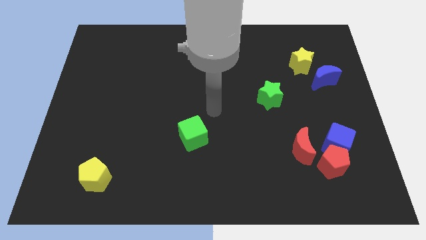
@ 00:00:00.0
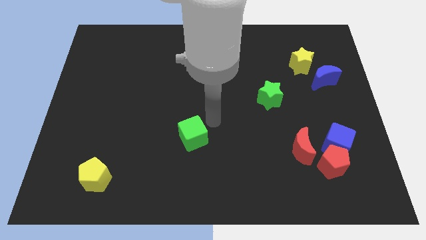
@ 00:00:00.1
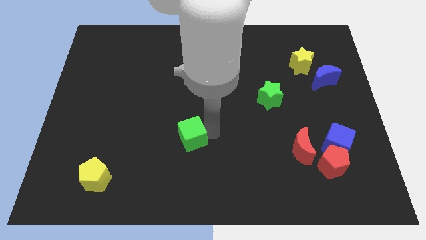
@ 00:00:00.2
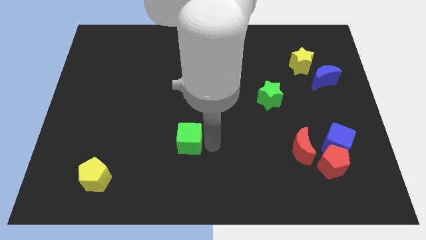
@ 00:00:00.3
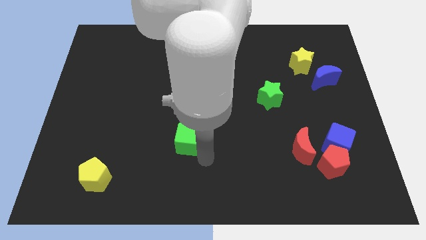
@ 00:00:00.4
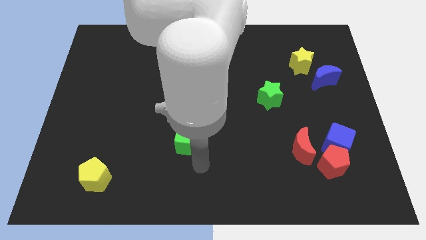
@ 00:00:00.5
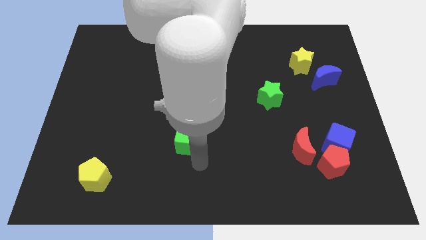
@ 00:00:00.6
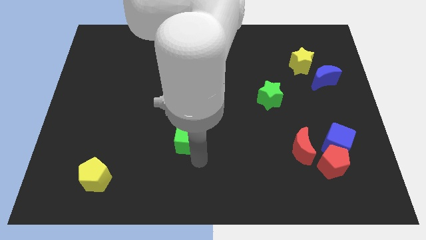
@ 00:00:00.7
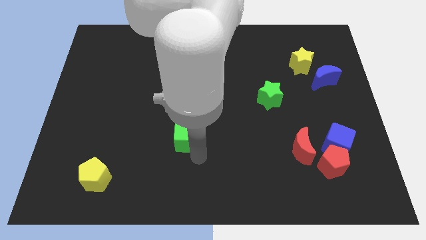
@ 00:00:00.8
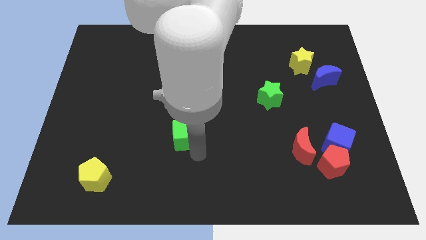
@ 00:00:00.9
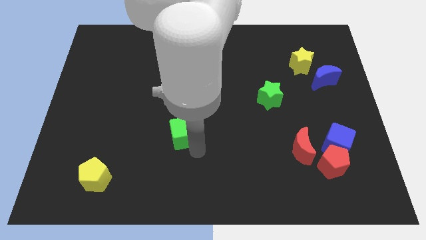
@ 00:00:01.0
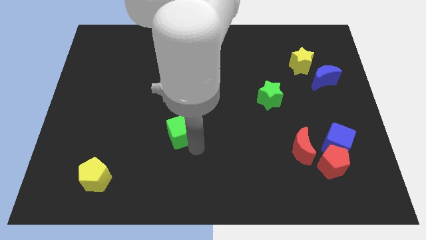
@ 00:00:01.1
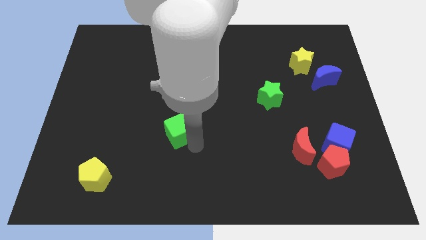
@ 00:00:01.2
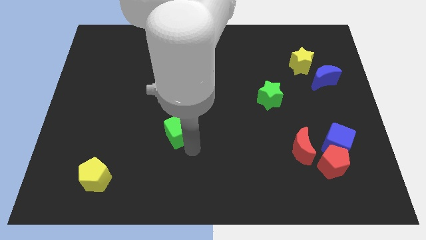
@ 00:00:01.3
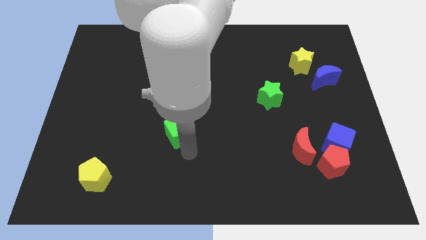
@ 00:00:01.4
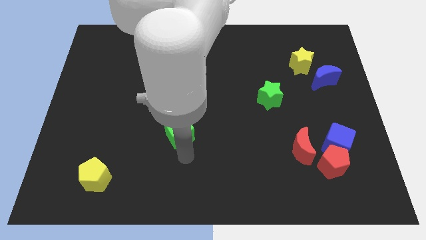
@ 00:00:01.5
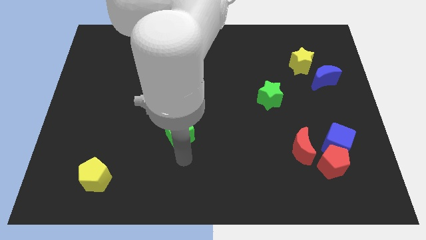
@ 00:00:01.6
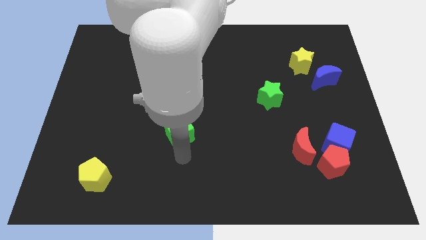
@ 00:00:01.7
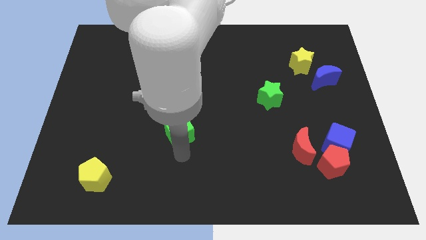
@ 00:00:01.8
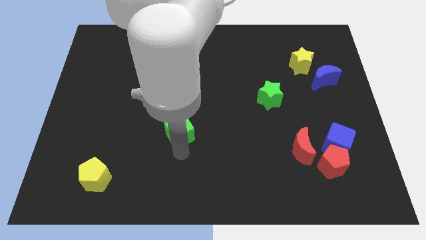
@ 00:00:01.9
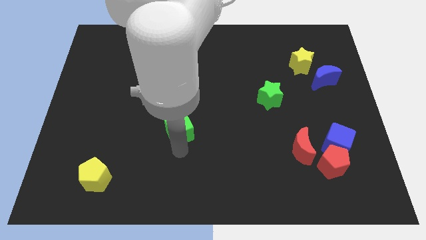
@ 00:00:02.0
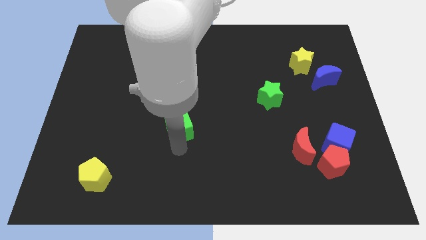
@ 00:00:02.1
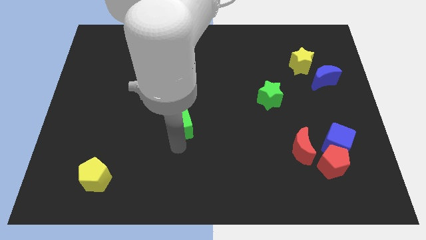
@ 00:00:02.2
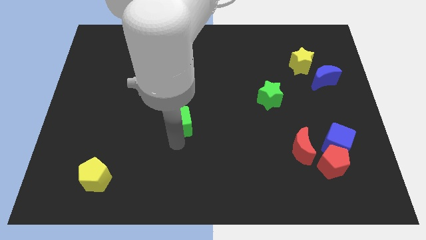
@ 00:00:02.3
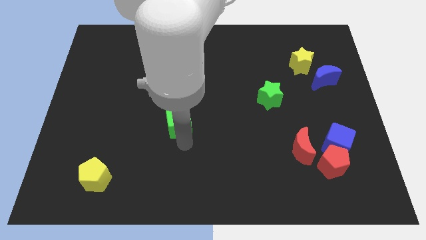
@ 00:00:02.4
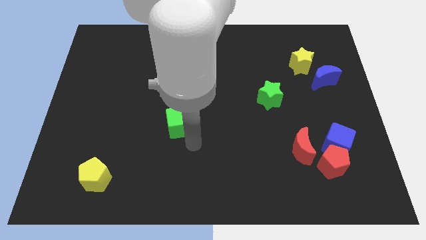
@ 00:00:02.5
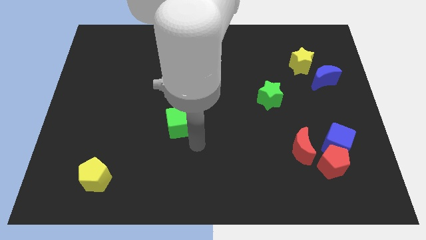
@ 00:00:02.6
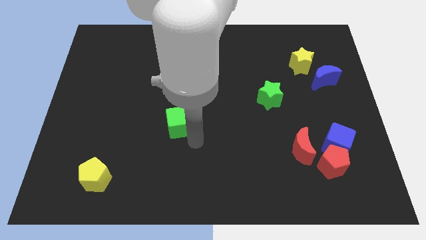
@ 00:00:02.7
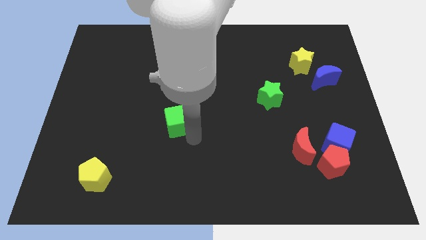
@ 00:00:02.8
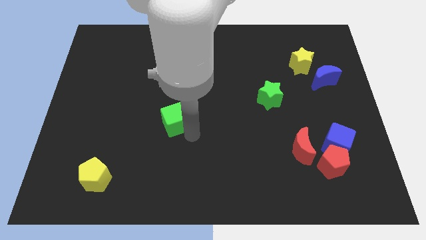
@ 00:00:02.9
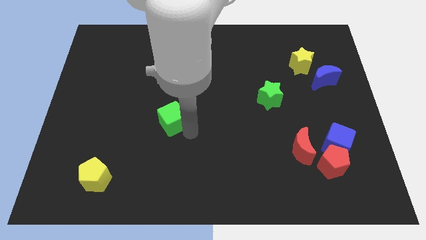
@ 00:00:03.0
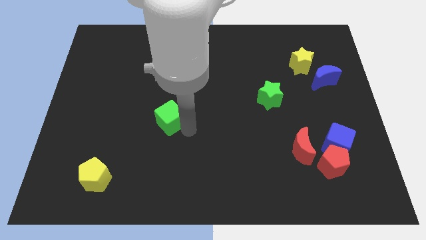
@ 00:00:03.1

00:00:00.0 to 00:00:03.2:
move the green cube up and left slightly

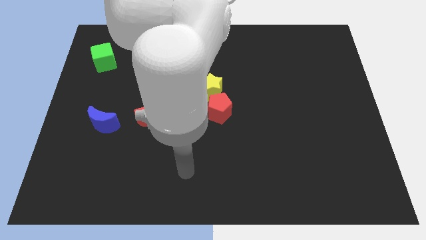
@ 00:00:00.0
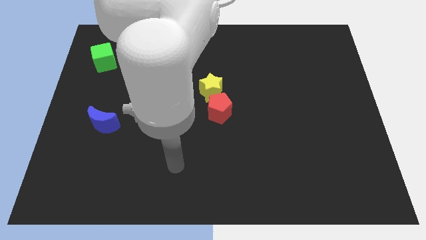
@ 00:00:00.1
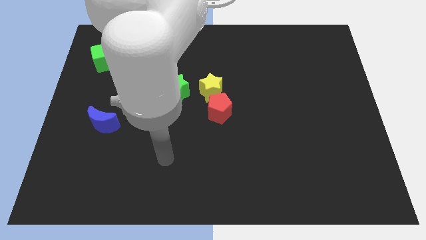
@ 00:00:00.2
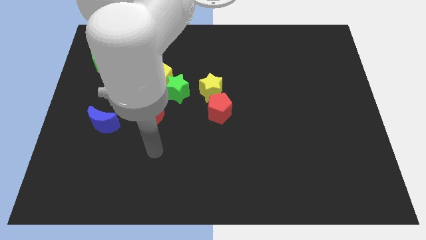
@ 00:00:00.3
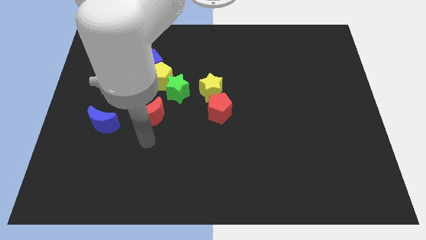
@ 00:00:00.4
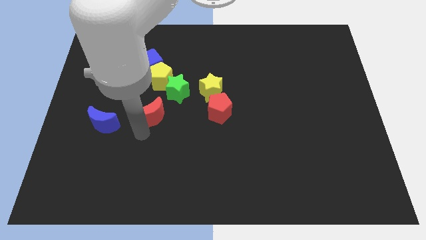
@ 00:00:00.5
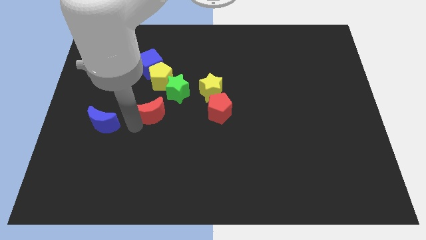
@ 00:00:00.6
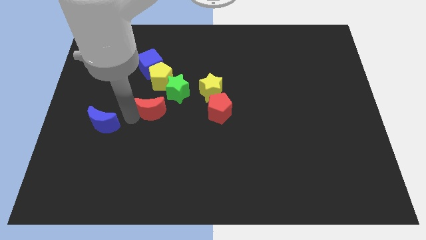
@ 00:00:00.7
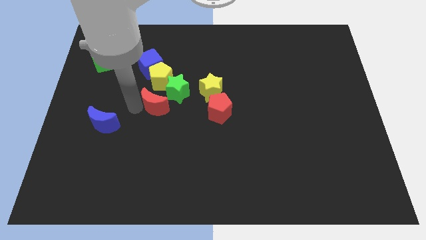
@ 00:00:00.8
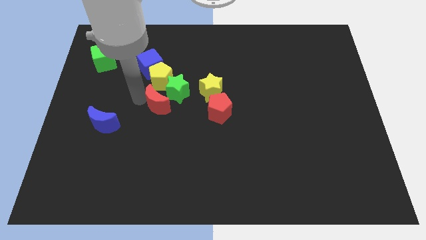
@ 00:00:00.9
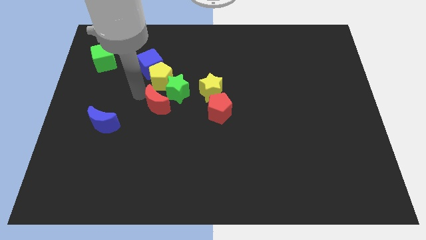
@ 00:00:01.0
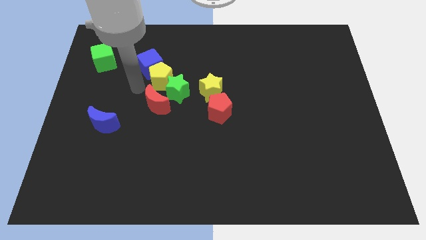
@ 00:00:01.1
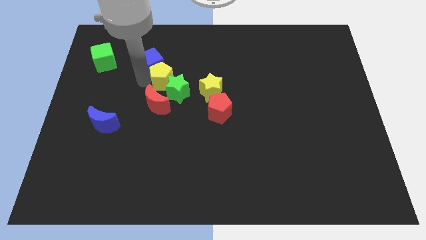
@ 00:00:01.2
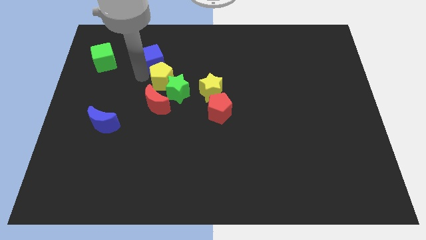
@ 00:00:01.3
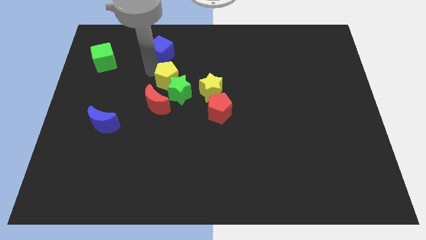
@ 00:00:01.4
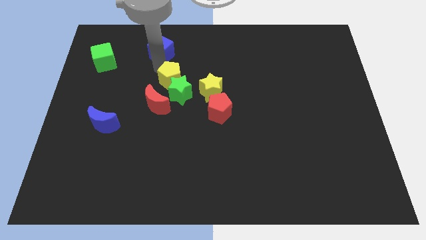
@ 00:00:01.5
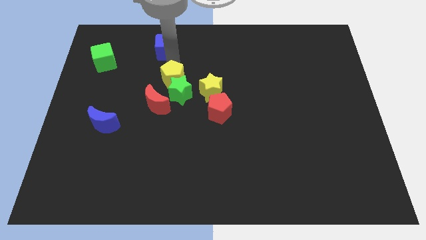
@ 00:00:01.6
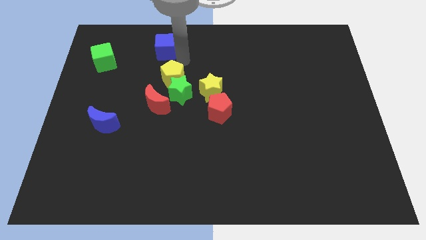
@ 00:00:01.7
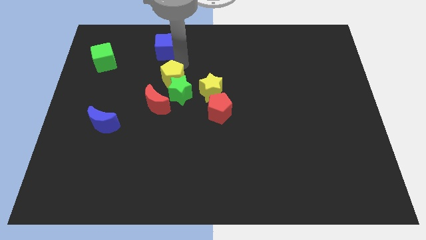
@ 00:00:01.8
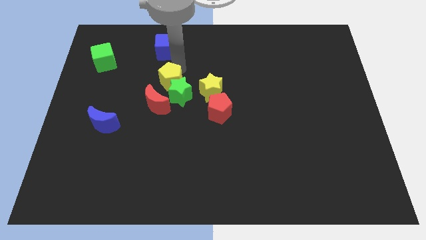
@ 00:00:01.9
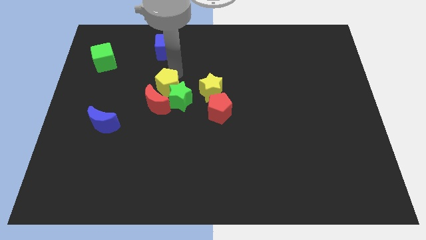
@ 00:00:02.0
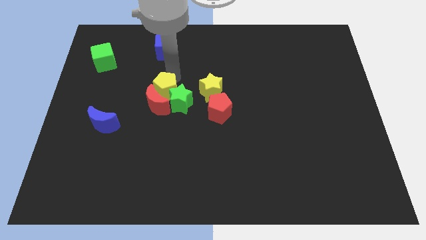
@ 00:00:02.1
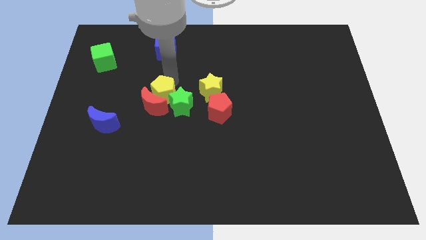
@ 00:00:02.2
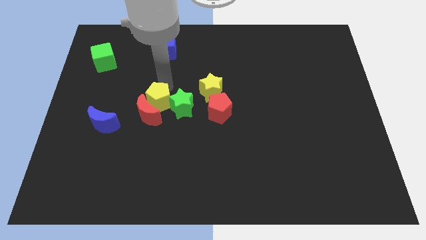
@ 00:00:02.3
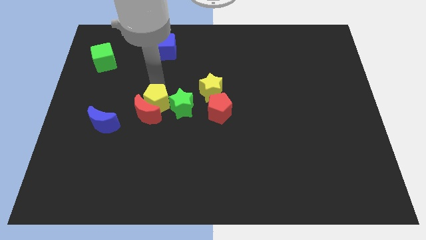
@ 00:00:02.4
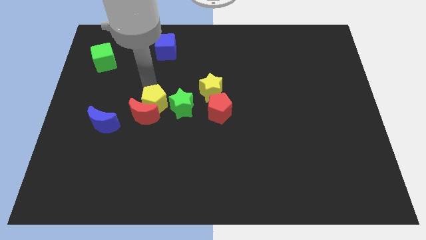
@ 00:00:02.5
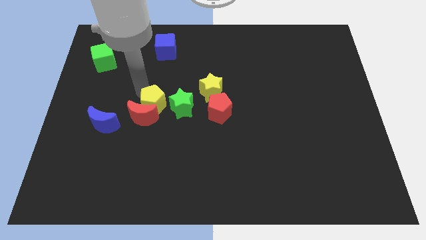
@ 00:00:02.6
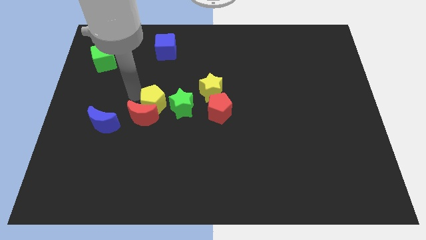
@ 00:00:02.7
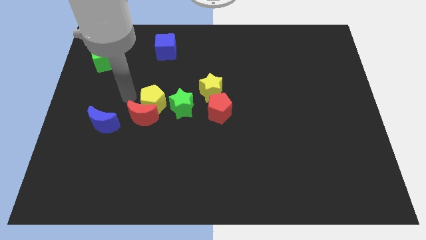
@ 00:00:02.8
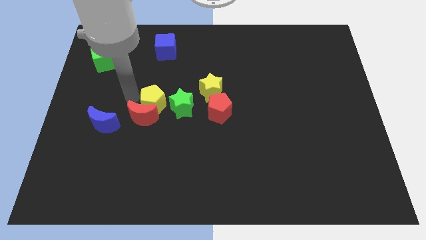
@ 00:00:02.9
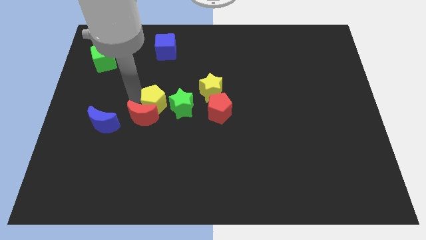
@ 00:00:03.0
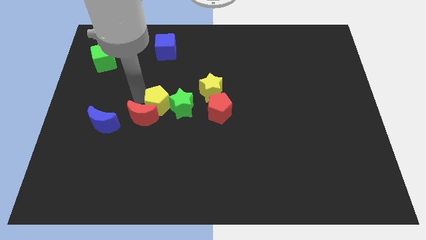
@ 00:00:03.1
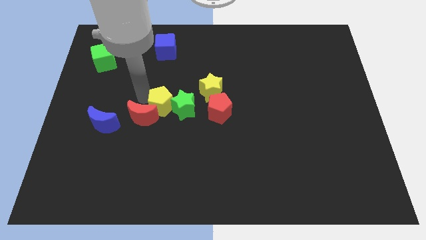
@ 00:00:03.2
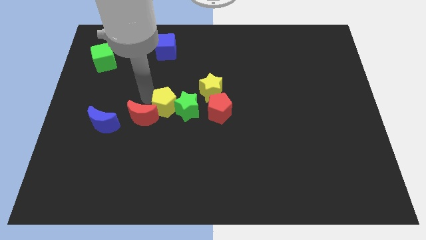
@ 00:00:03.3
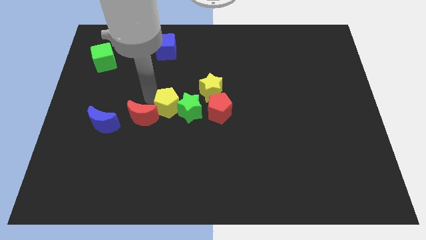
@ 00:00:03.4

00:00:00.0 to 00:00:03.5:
push the yellow pentagon downwards and then right somewhat

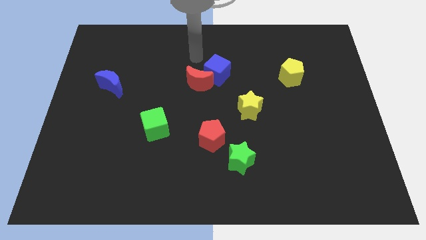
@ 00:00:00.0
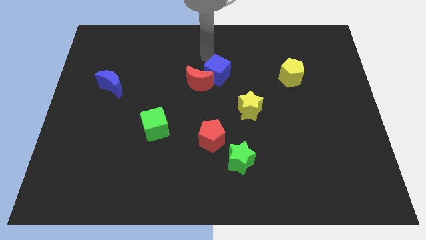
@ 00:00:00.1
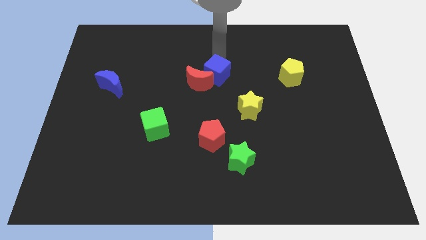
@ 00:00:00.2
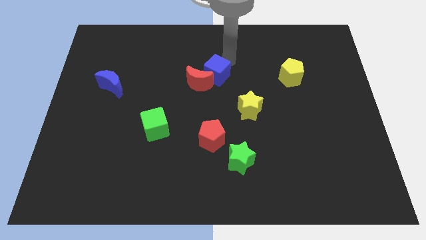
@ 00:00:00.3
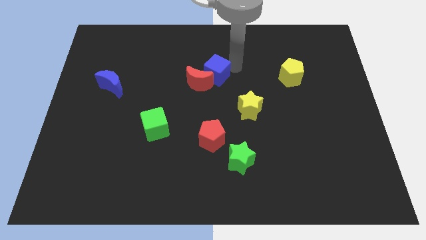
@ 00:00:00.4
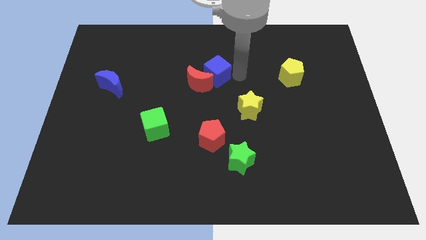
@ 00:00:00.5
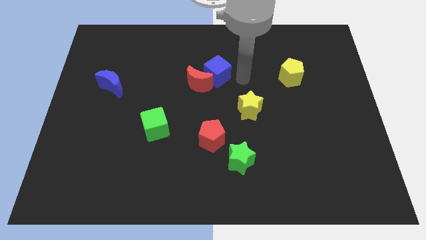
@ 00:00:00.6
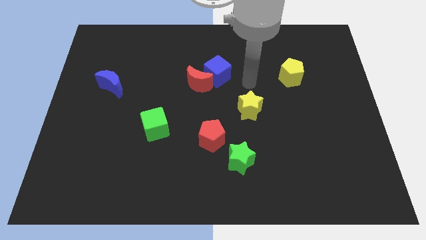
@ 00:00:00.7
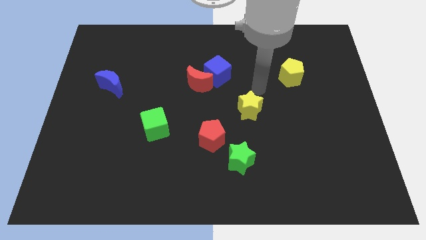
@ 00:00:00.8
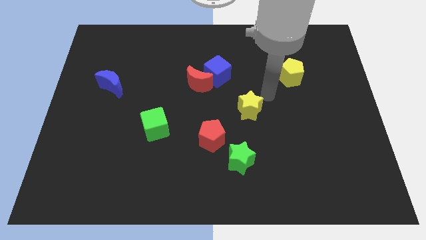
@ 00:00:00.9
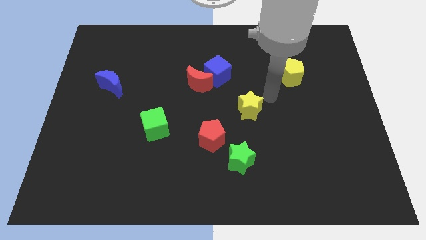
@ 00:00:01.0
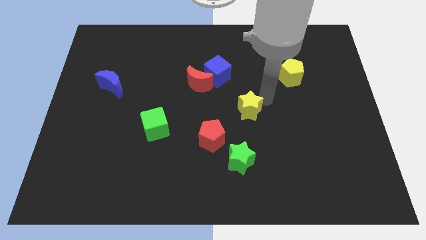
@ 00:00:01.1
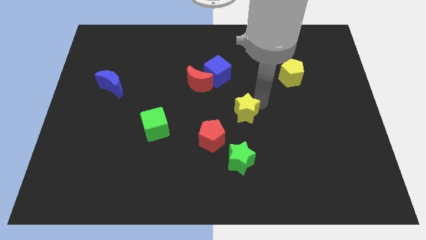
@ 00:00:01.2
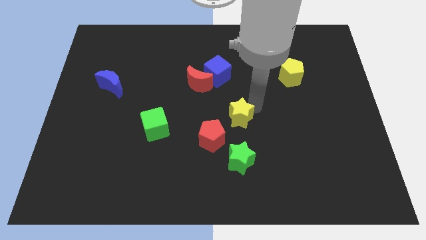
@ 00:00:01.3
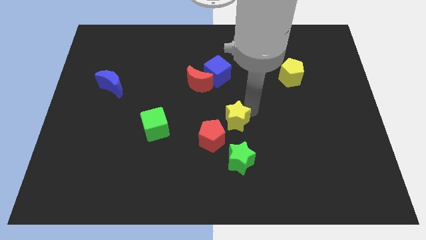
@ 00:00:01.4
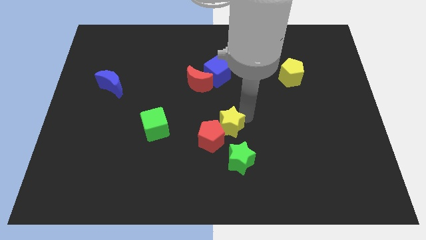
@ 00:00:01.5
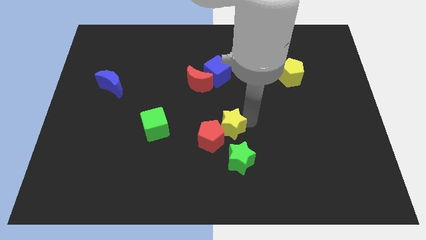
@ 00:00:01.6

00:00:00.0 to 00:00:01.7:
push the yellow star somewhat diagonally downwards and to the left
